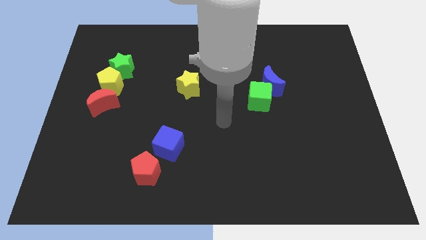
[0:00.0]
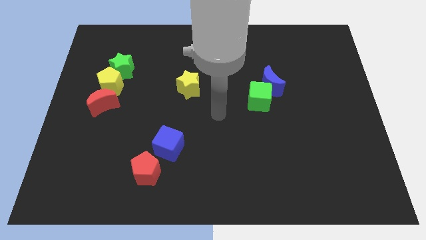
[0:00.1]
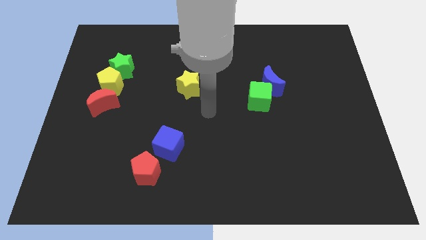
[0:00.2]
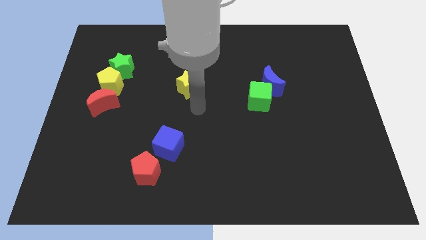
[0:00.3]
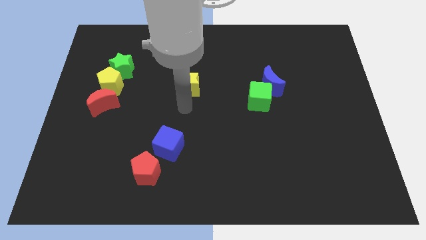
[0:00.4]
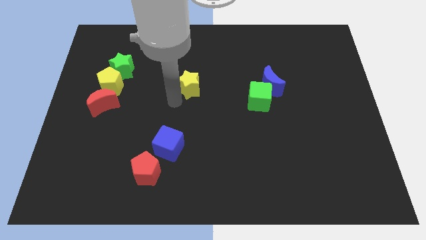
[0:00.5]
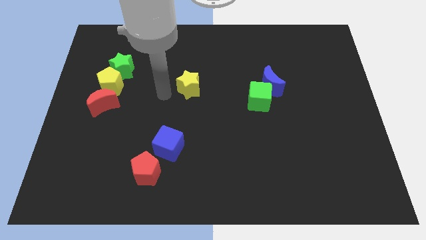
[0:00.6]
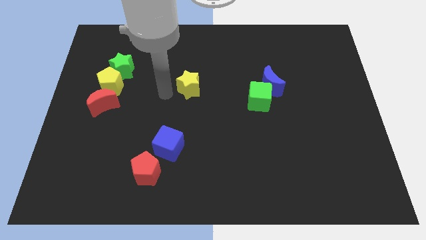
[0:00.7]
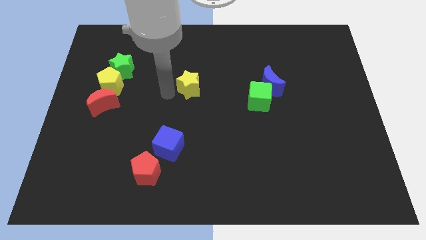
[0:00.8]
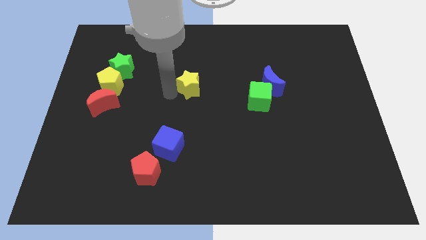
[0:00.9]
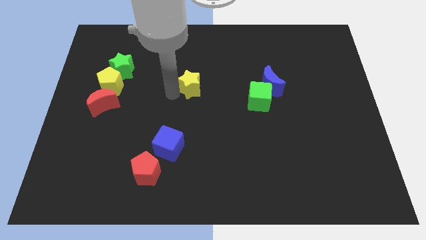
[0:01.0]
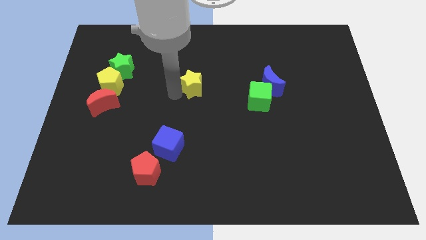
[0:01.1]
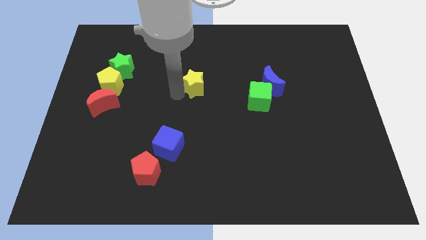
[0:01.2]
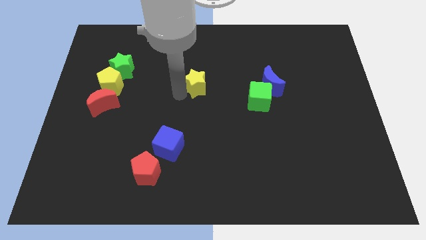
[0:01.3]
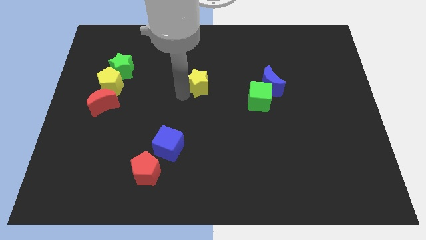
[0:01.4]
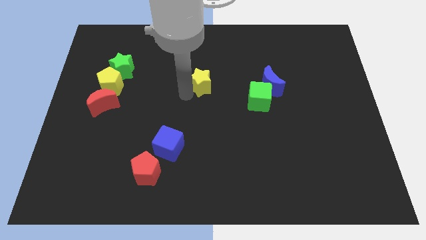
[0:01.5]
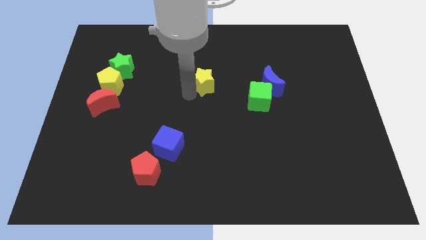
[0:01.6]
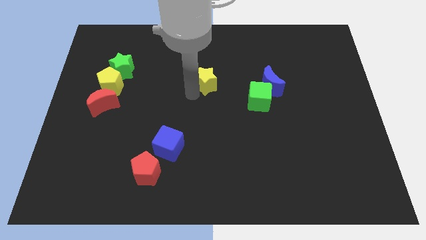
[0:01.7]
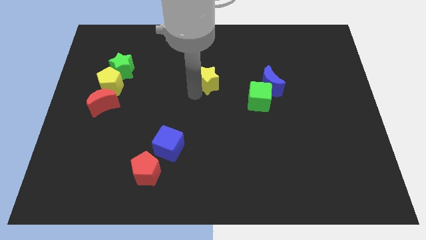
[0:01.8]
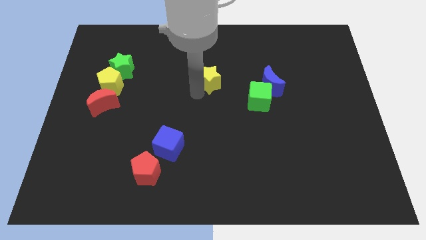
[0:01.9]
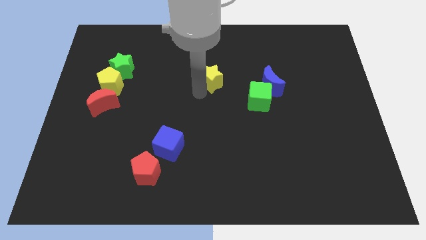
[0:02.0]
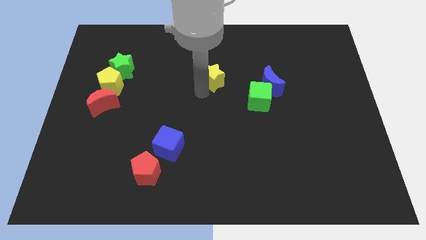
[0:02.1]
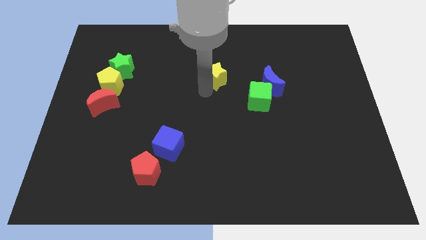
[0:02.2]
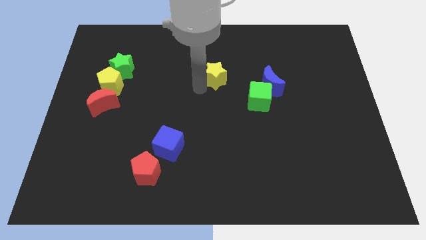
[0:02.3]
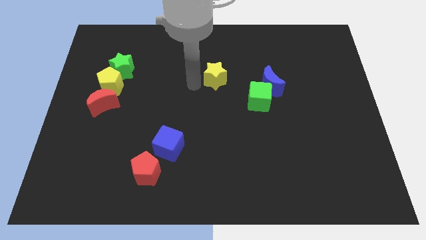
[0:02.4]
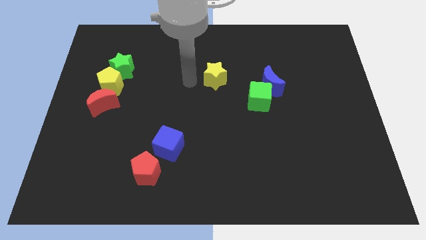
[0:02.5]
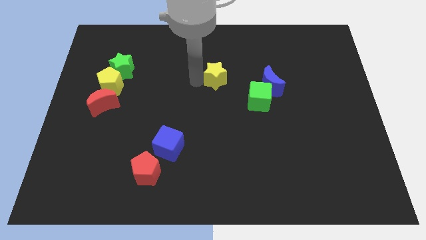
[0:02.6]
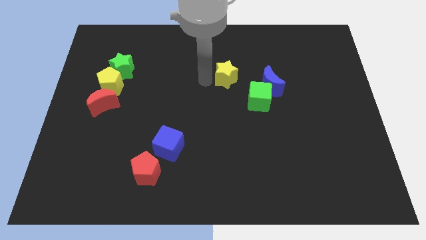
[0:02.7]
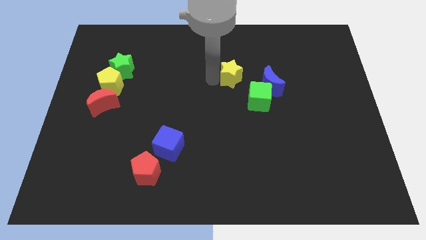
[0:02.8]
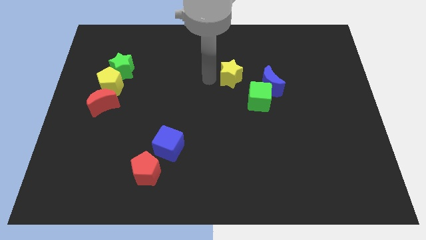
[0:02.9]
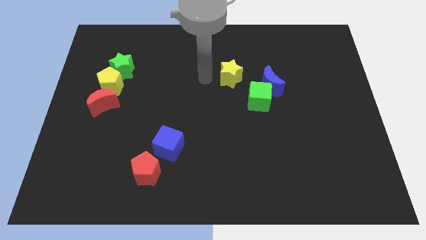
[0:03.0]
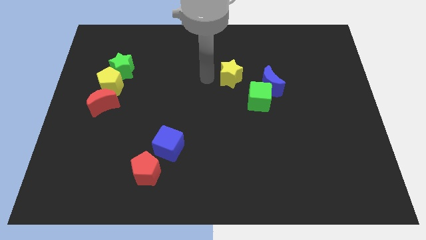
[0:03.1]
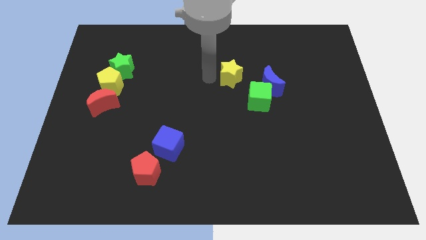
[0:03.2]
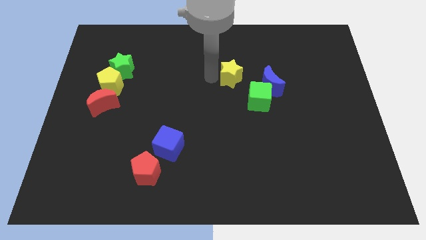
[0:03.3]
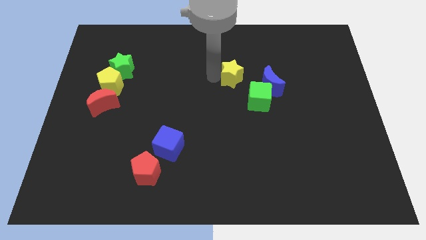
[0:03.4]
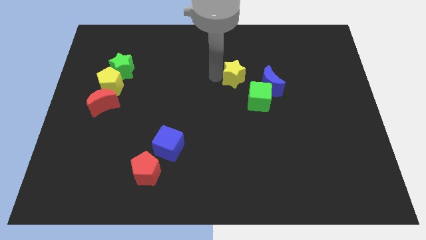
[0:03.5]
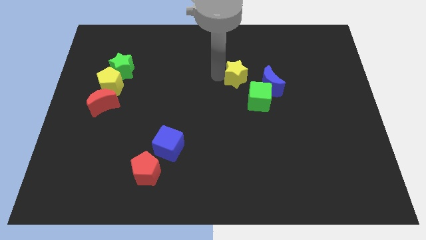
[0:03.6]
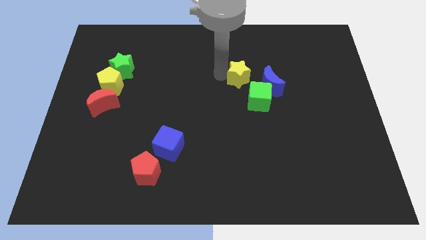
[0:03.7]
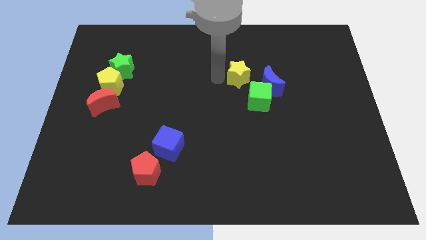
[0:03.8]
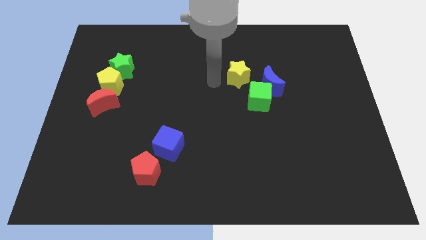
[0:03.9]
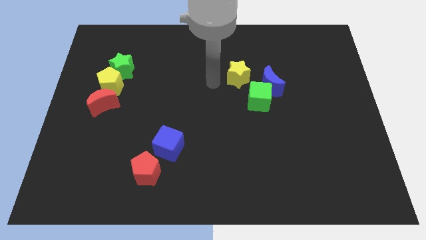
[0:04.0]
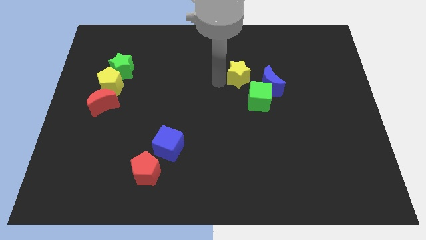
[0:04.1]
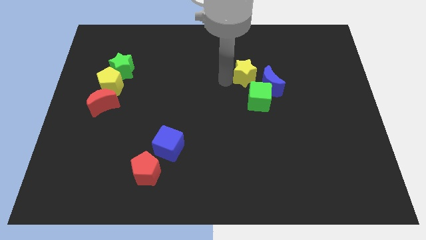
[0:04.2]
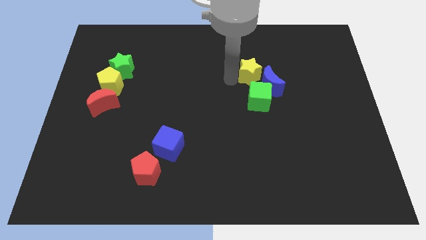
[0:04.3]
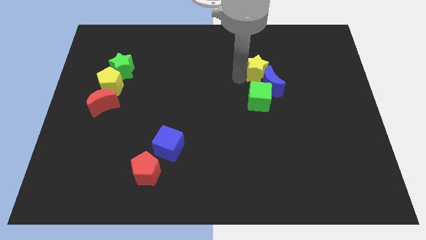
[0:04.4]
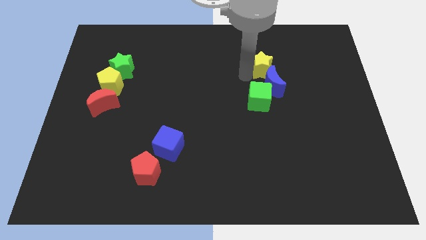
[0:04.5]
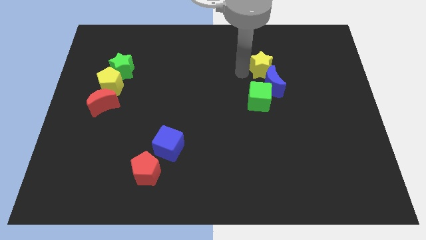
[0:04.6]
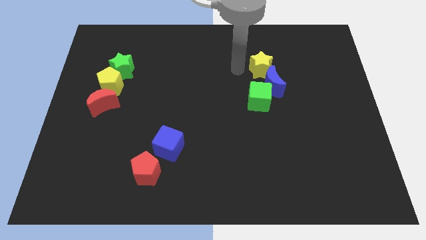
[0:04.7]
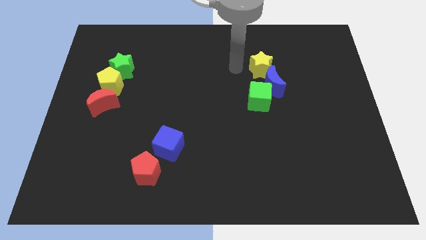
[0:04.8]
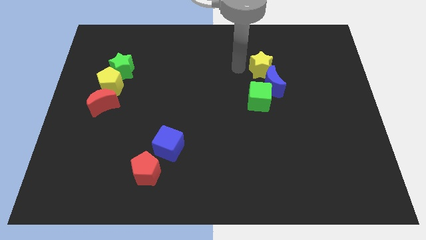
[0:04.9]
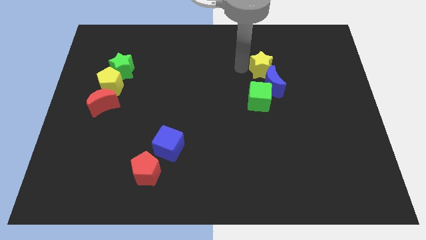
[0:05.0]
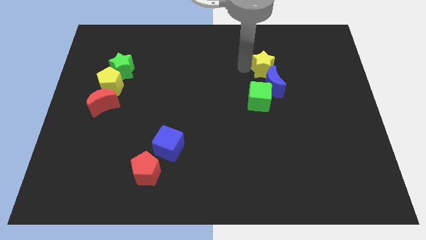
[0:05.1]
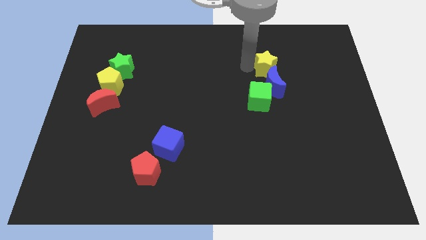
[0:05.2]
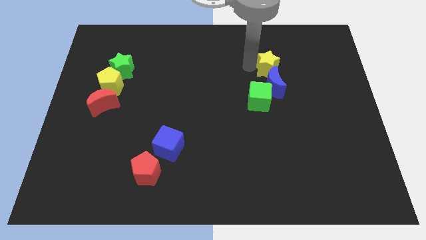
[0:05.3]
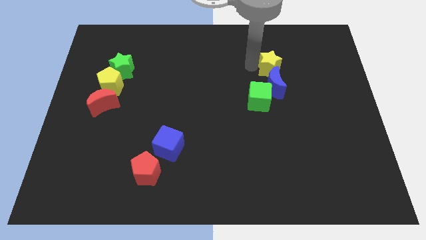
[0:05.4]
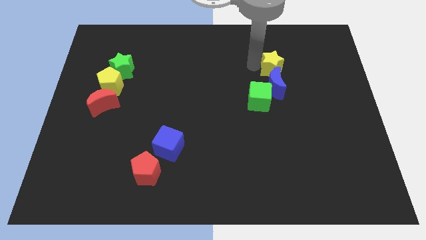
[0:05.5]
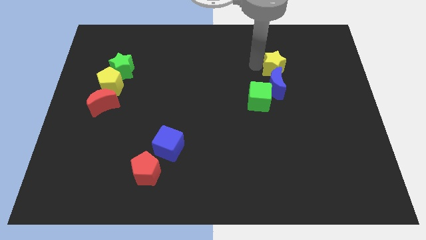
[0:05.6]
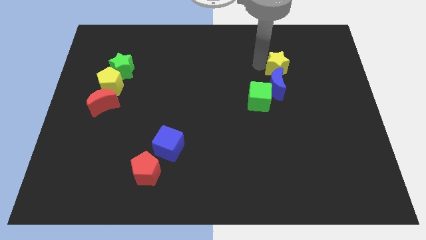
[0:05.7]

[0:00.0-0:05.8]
push the yellow star right

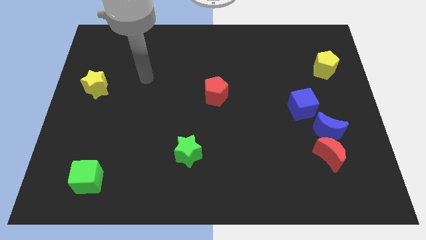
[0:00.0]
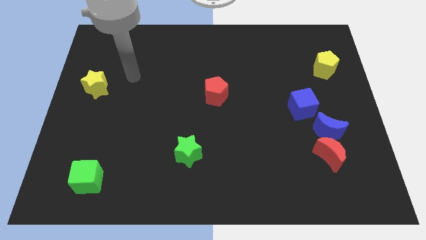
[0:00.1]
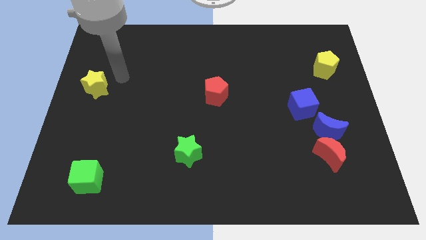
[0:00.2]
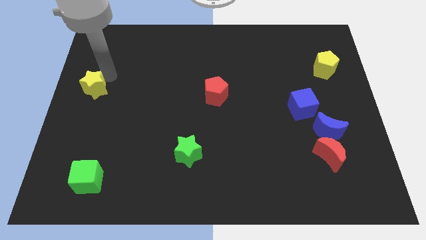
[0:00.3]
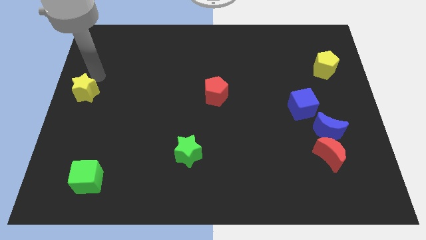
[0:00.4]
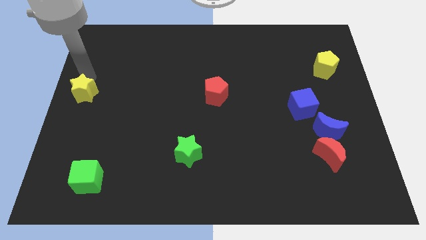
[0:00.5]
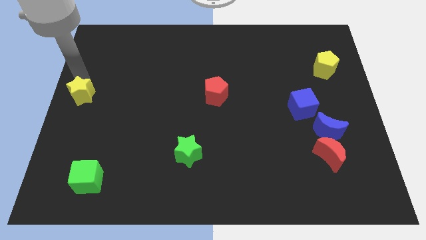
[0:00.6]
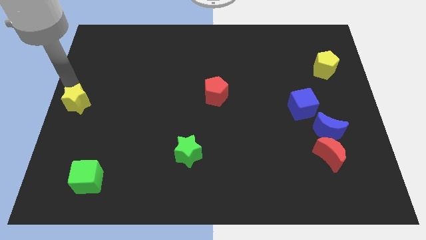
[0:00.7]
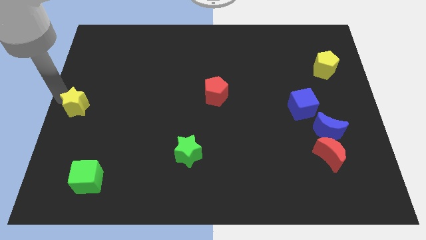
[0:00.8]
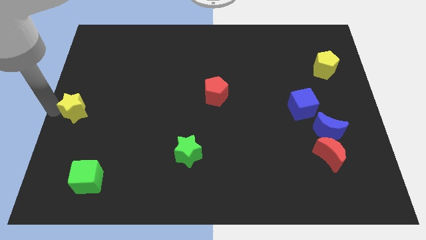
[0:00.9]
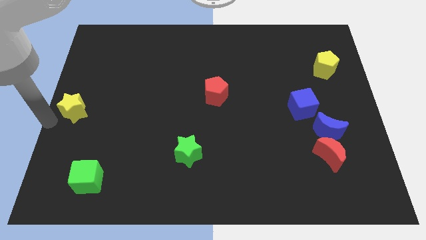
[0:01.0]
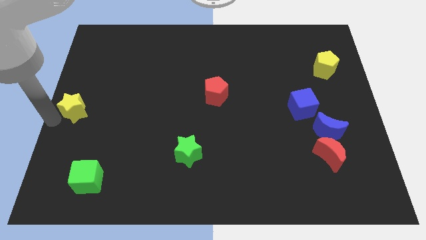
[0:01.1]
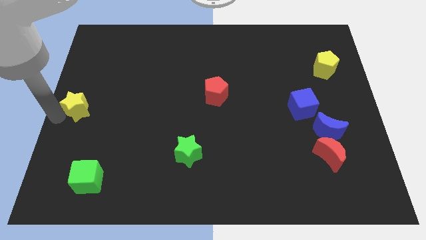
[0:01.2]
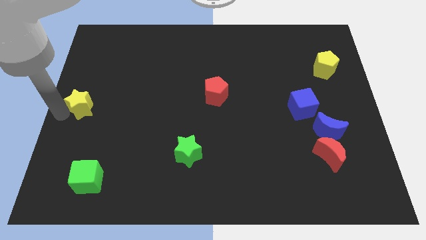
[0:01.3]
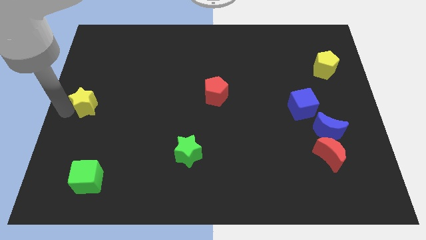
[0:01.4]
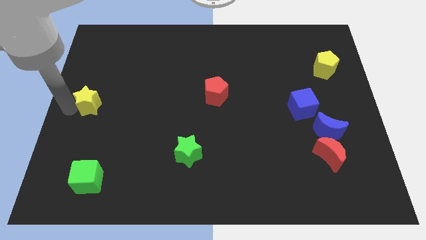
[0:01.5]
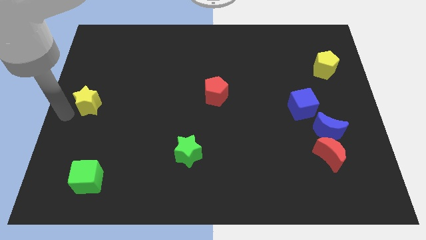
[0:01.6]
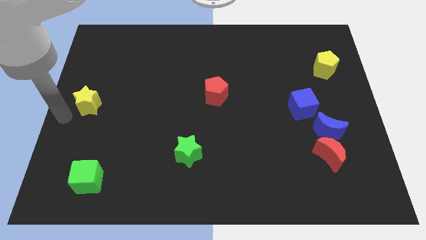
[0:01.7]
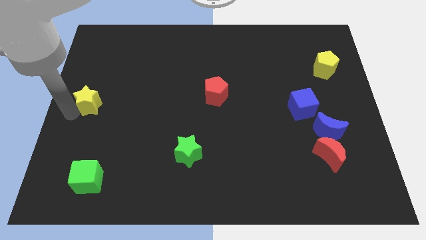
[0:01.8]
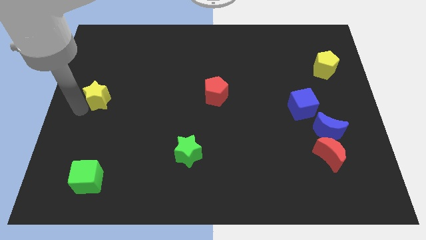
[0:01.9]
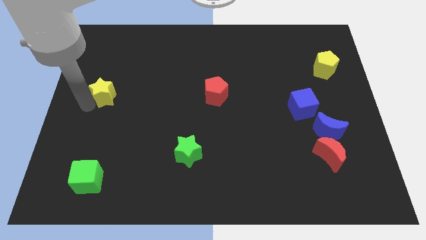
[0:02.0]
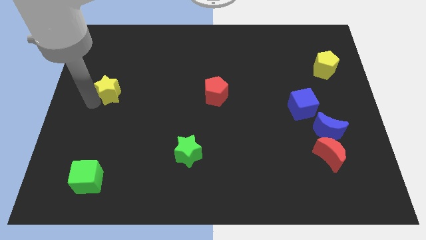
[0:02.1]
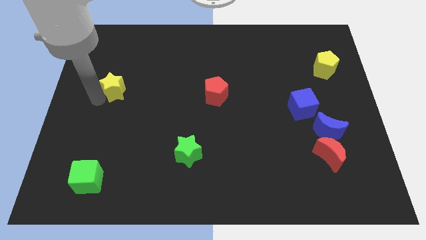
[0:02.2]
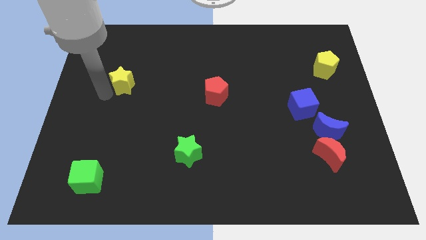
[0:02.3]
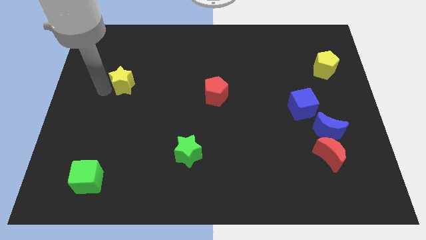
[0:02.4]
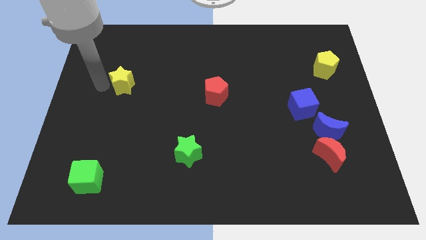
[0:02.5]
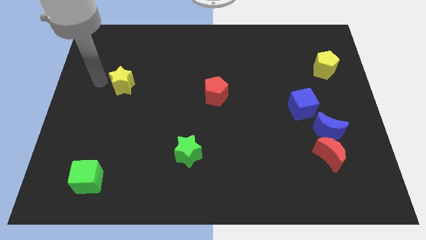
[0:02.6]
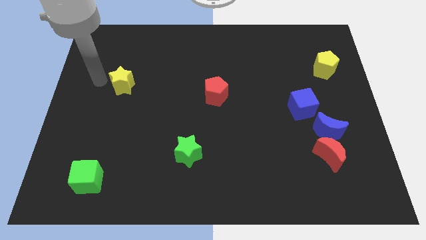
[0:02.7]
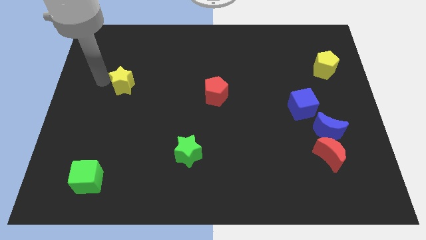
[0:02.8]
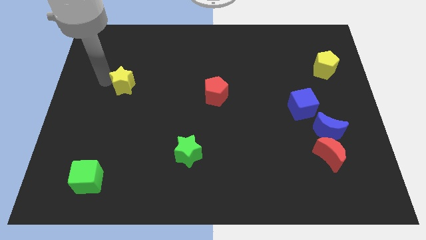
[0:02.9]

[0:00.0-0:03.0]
slightly move the yellow star to the right
